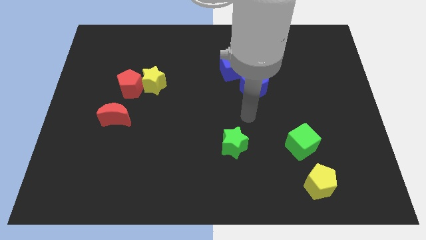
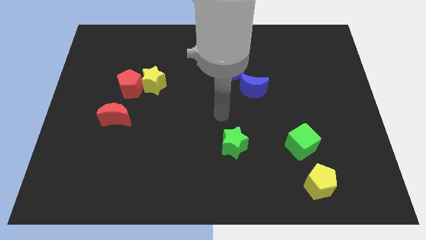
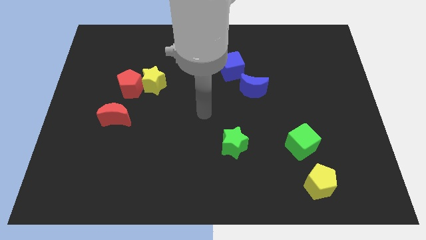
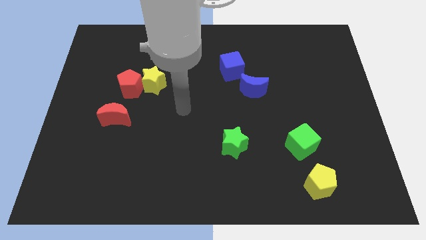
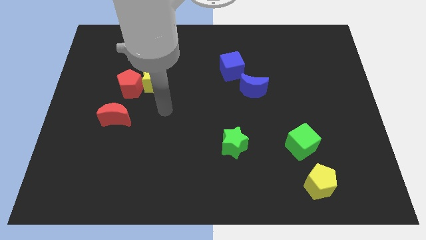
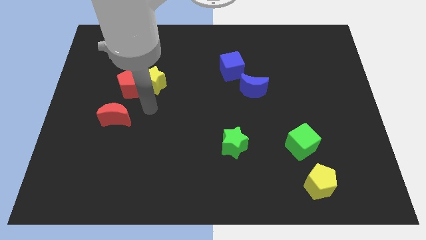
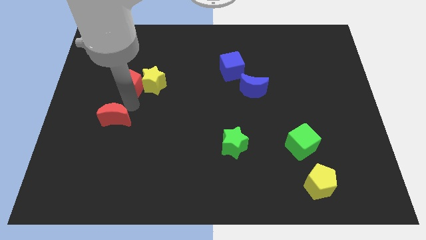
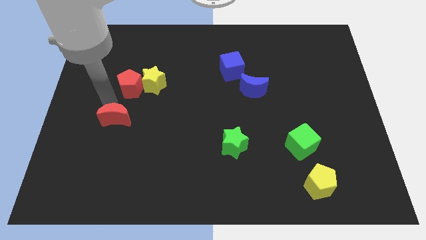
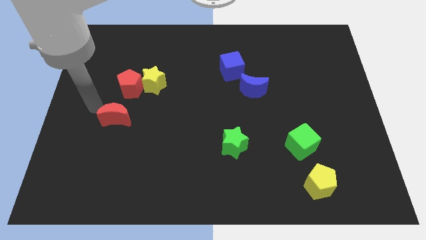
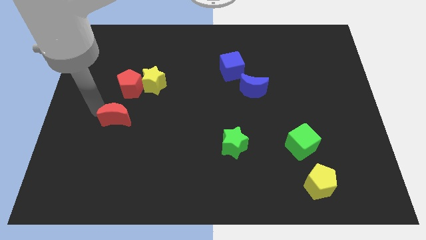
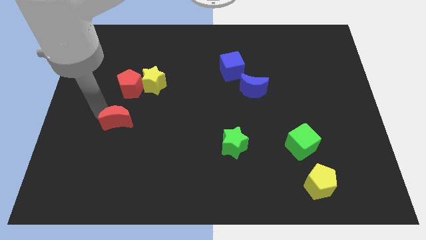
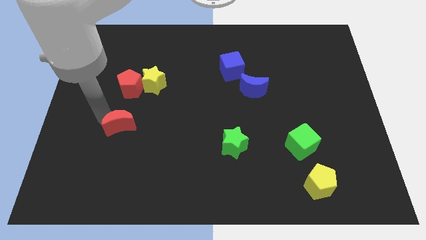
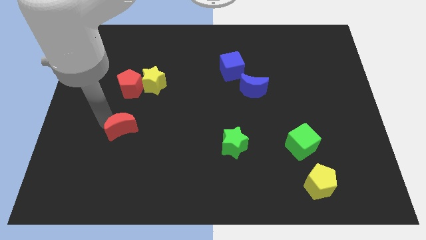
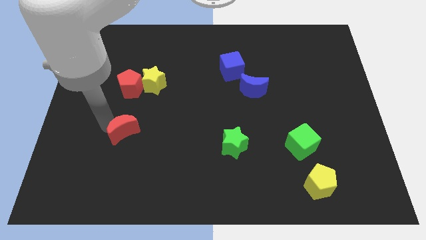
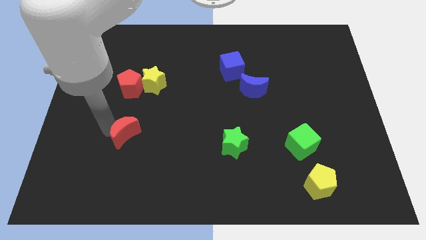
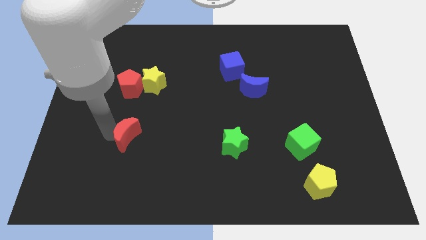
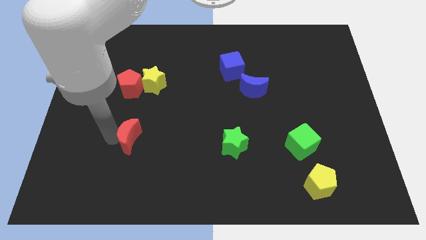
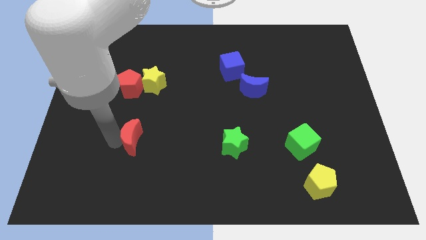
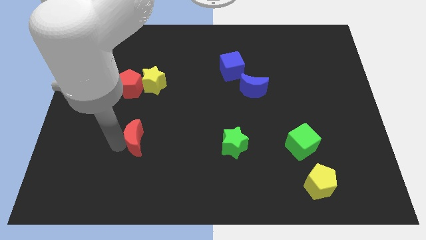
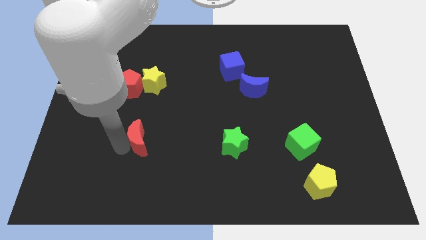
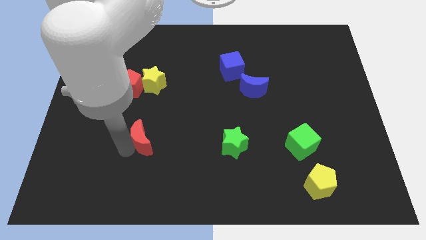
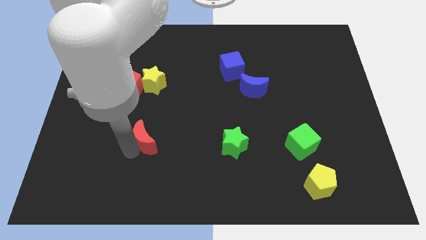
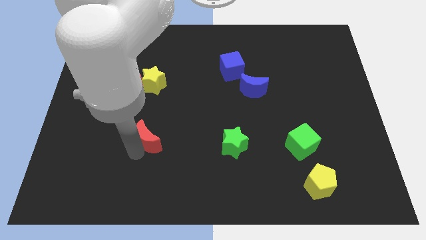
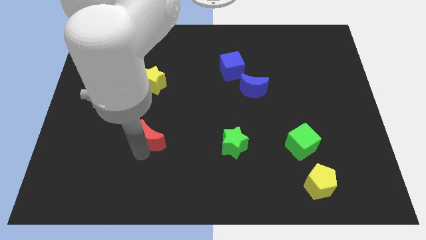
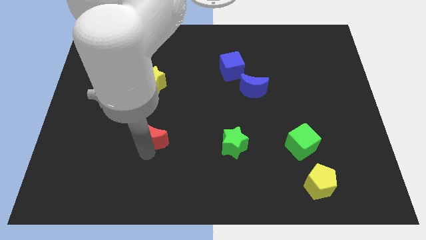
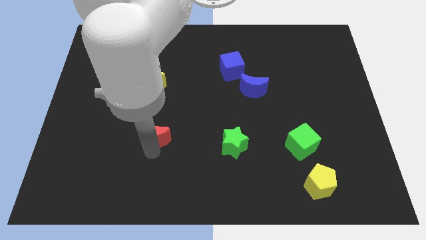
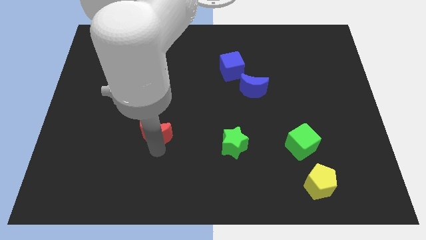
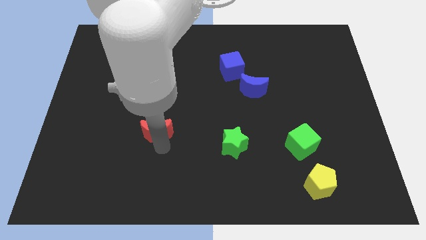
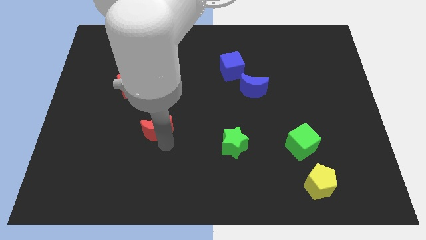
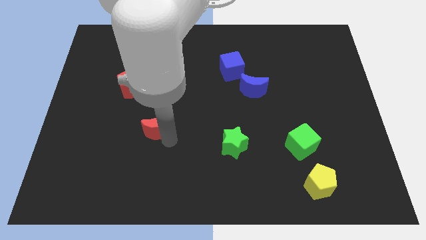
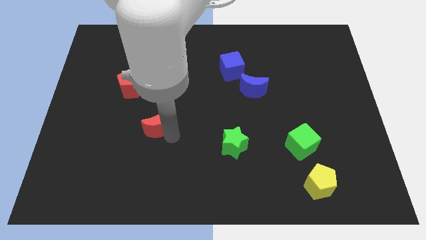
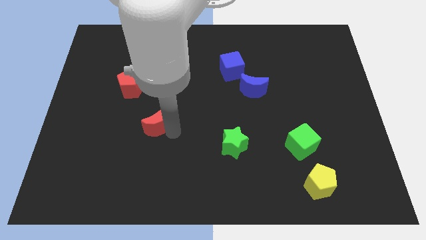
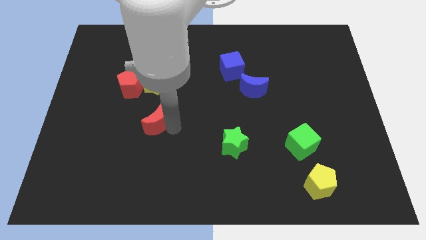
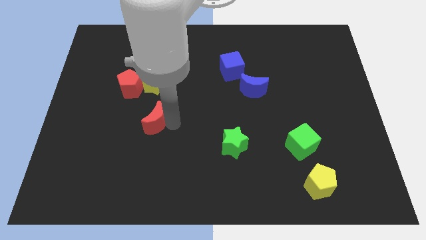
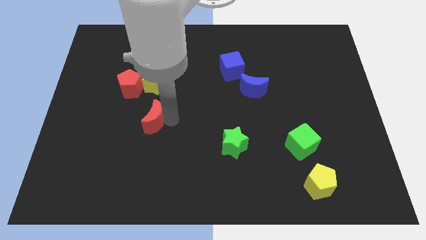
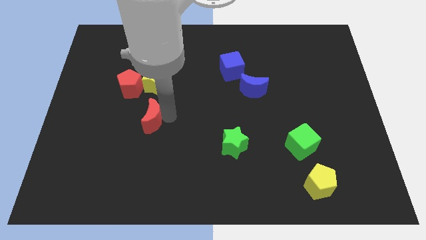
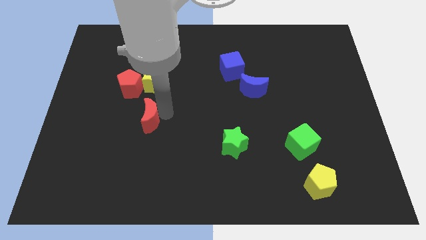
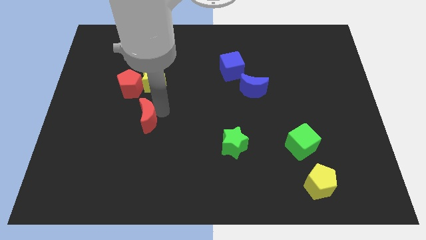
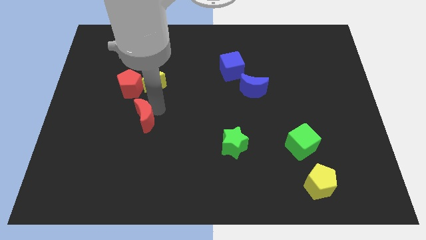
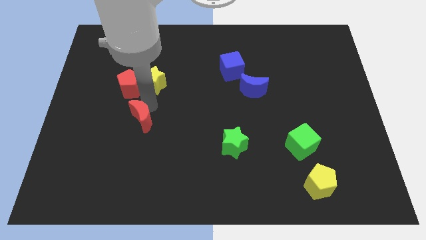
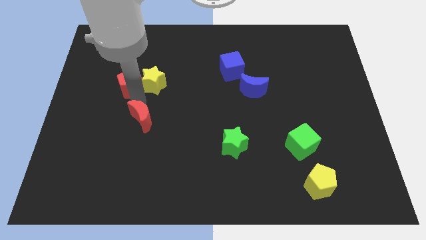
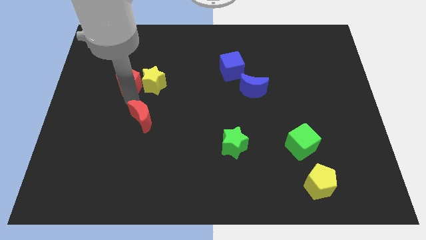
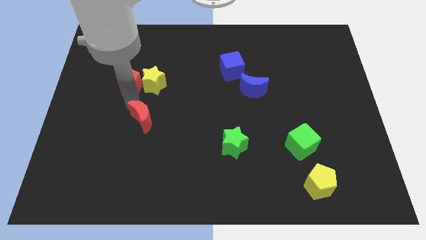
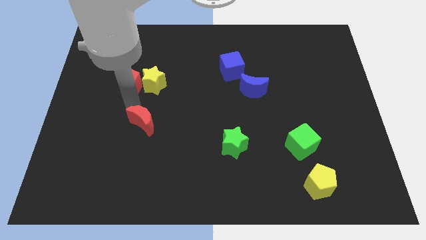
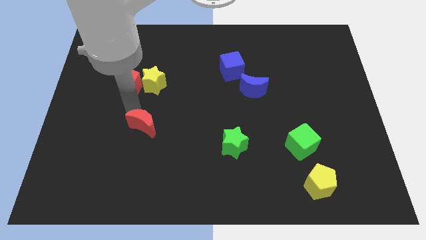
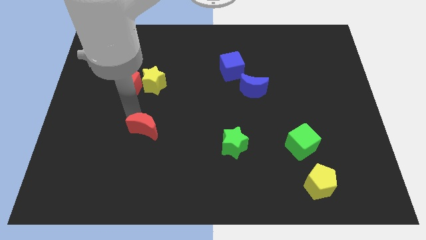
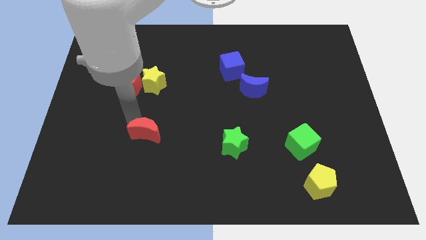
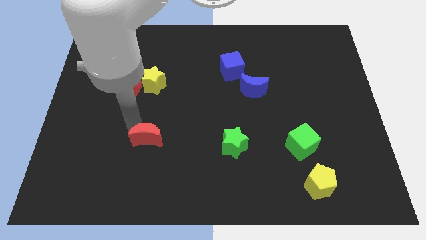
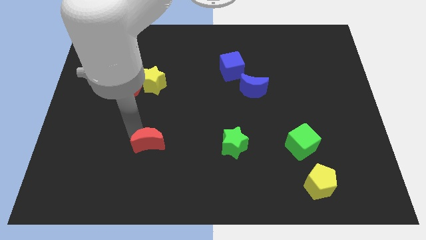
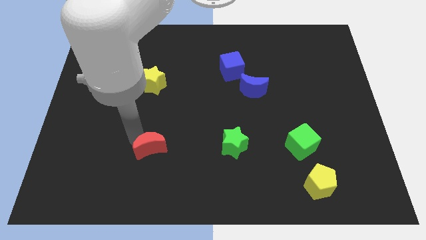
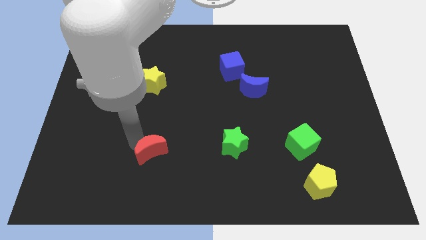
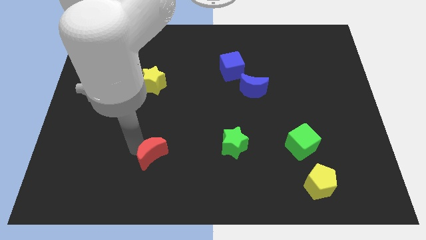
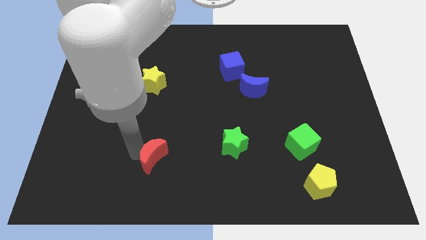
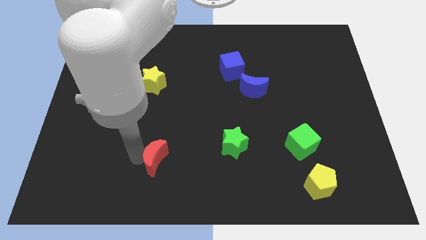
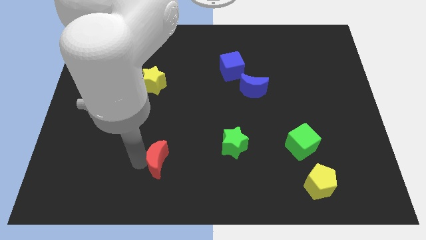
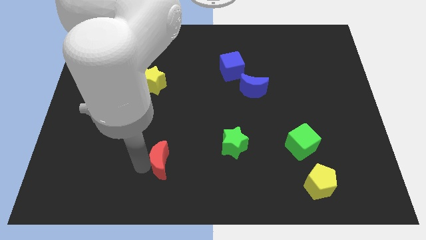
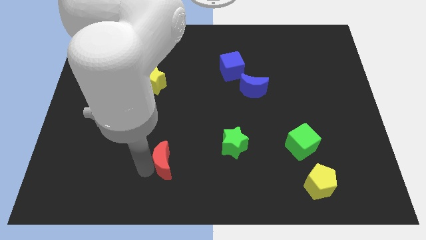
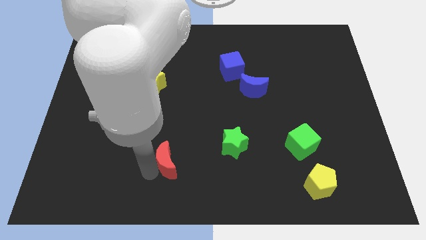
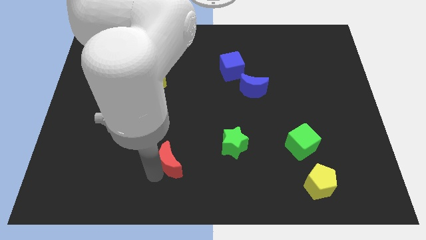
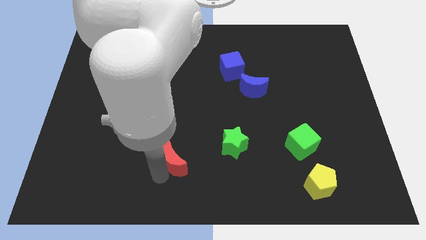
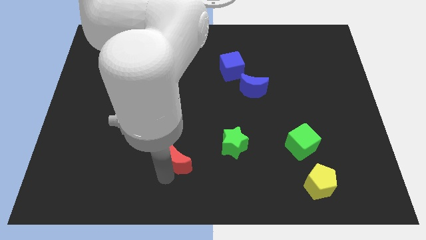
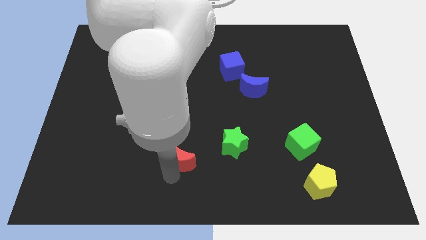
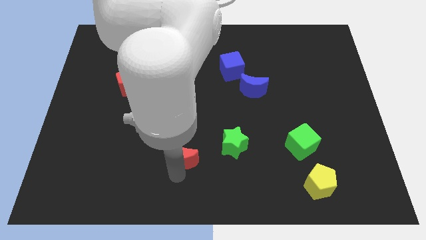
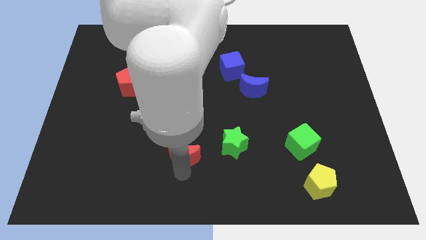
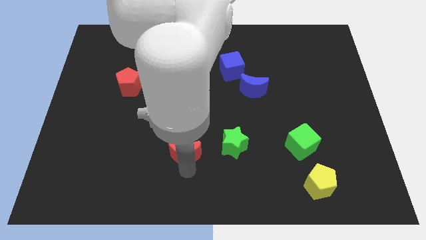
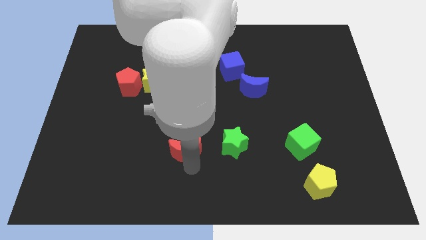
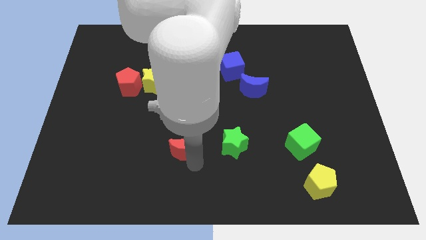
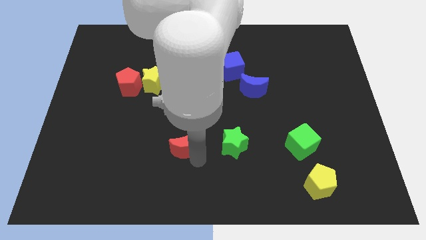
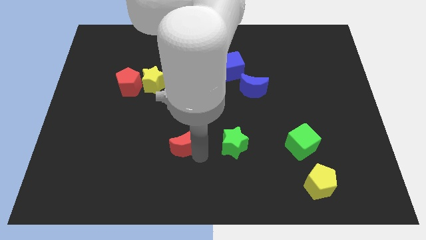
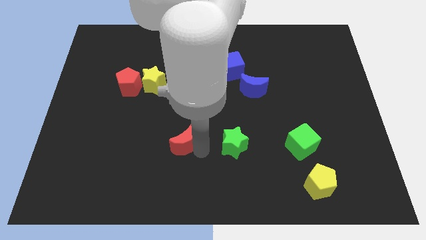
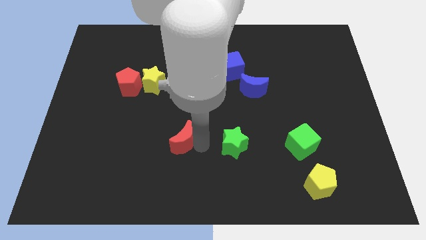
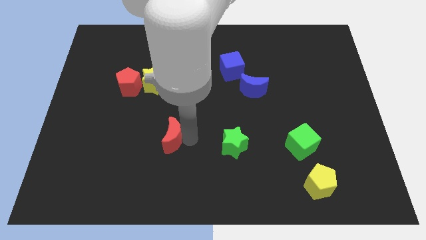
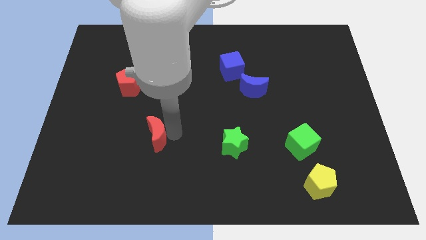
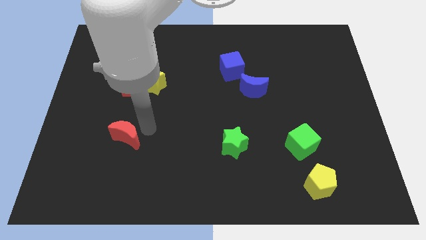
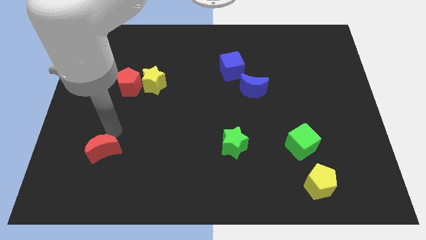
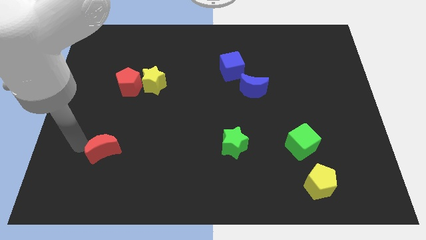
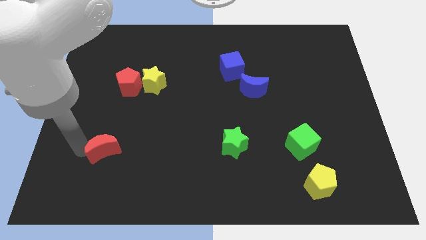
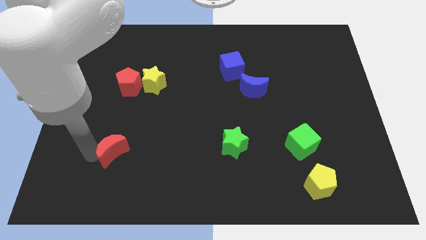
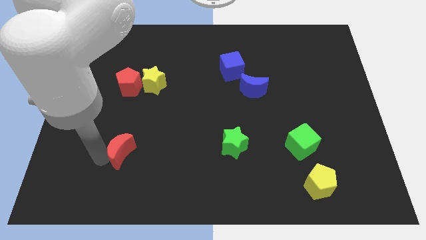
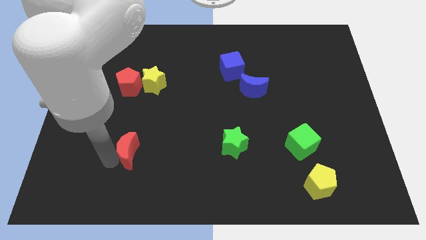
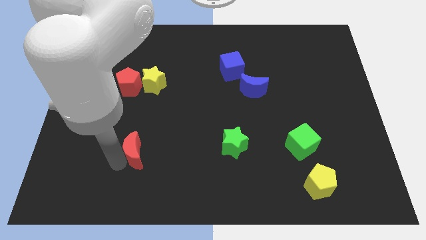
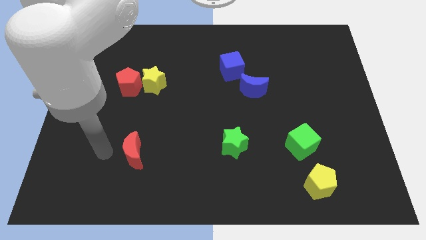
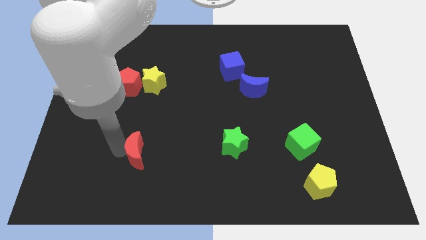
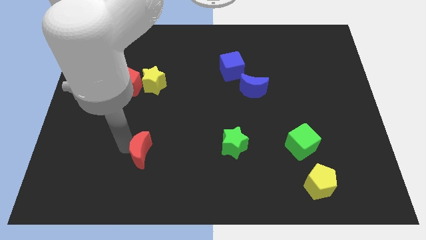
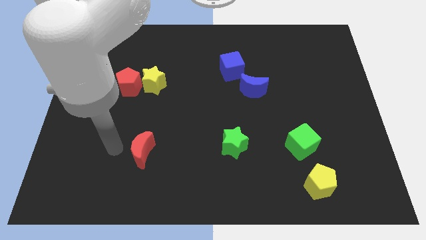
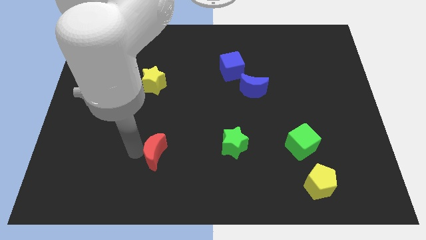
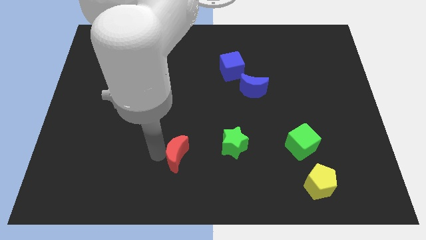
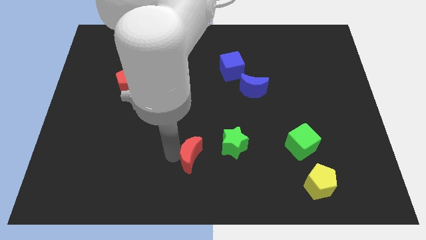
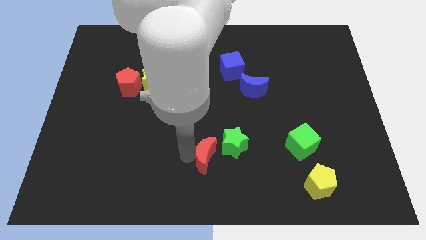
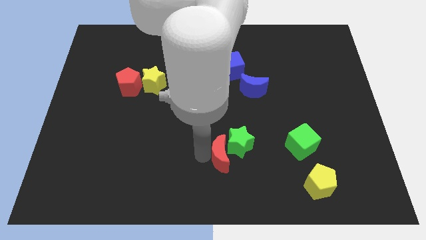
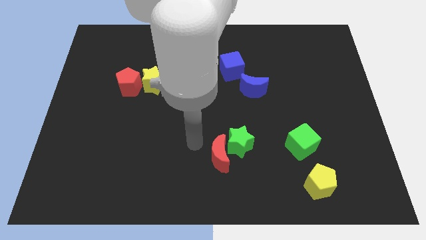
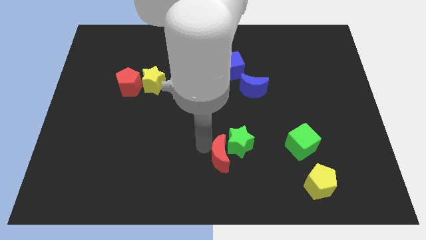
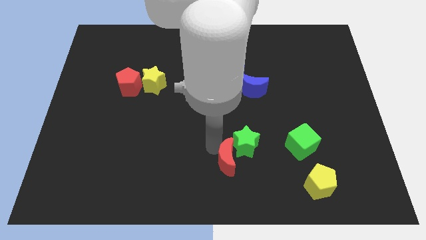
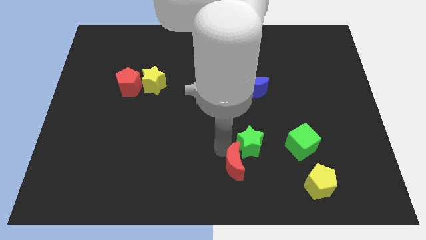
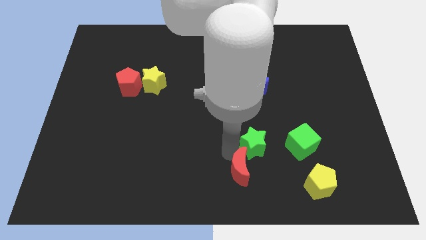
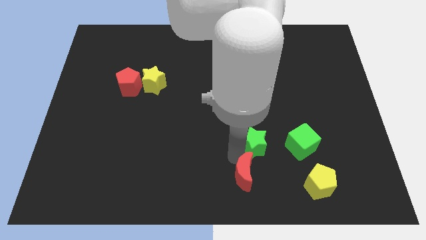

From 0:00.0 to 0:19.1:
slide the red moon to the left of the yellow pentagon
